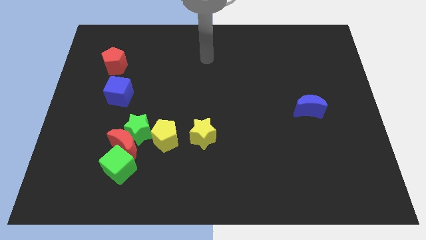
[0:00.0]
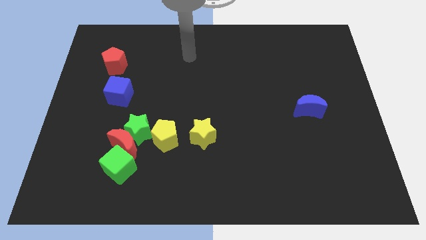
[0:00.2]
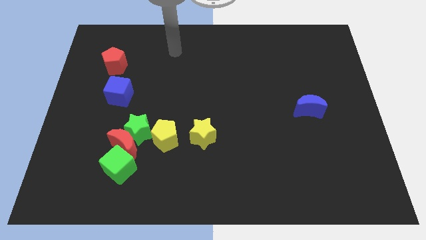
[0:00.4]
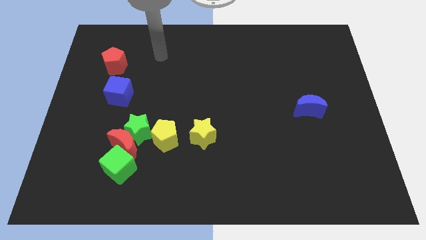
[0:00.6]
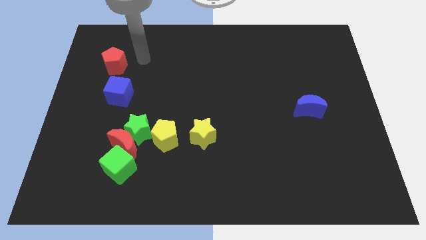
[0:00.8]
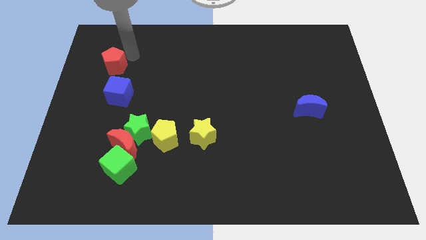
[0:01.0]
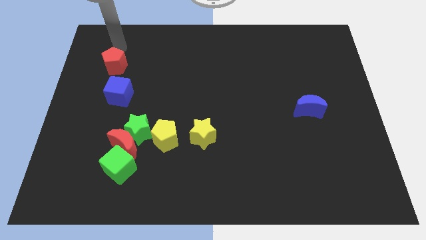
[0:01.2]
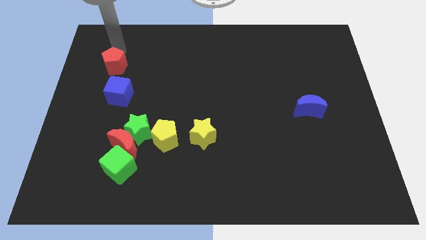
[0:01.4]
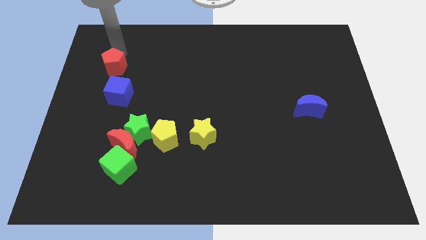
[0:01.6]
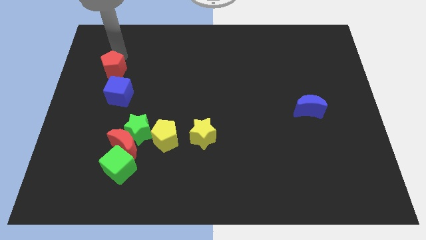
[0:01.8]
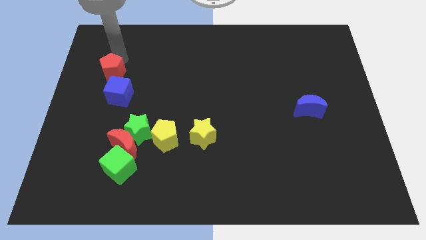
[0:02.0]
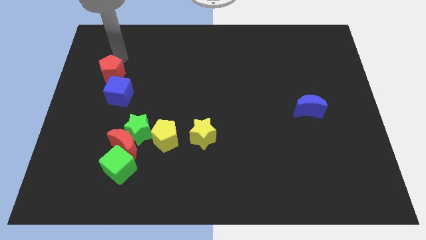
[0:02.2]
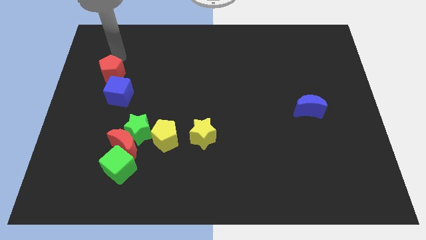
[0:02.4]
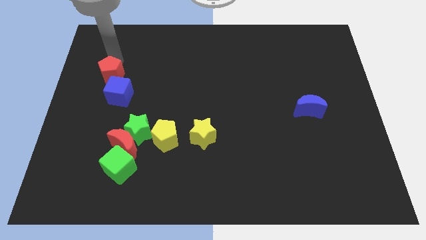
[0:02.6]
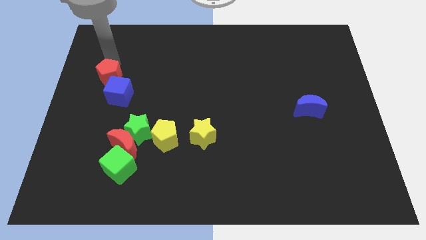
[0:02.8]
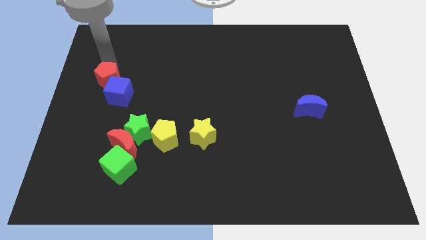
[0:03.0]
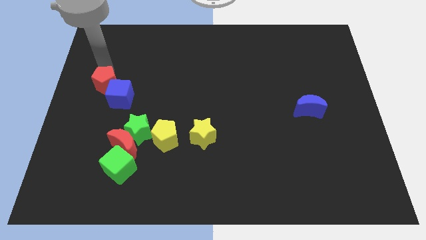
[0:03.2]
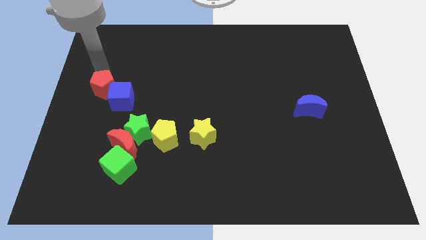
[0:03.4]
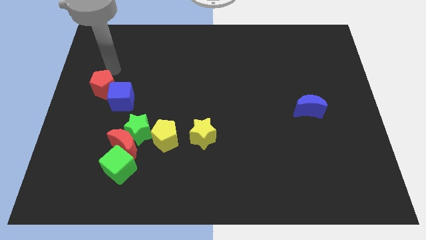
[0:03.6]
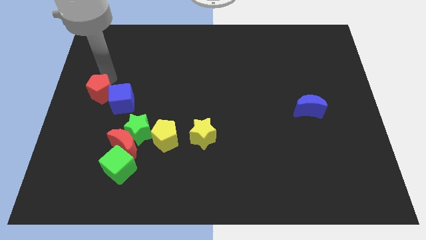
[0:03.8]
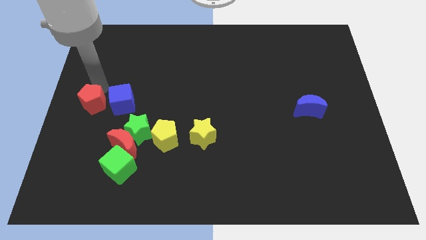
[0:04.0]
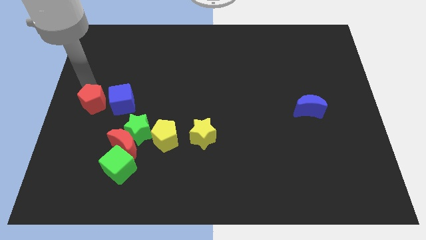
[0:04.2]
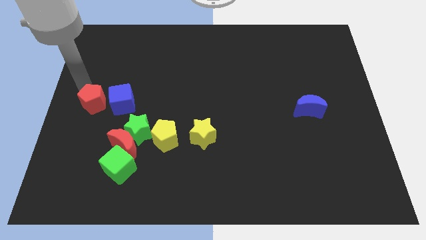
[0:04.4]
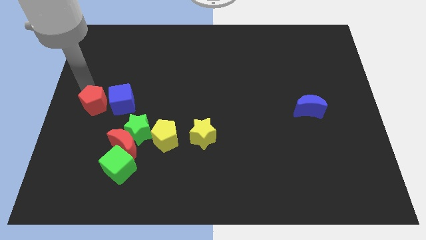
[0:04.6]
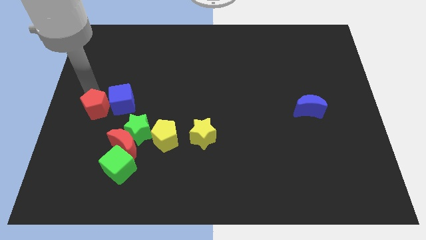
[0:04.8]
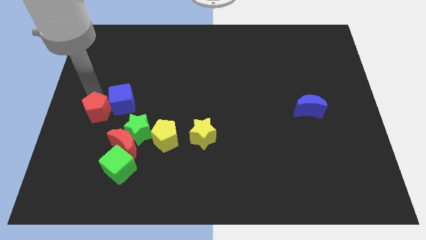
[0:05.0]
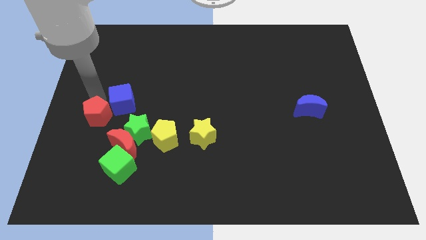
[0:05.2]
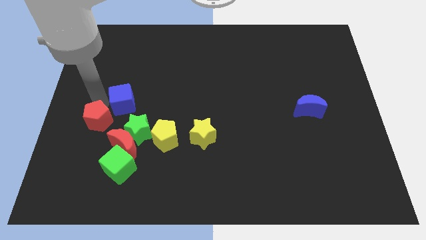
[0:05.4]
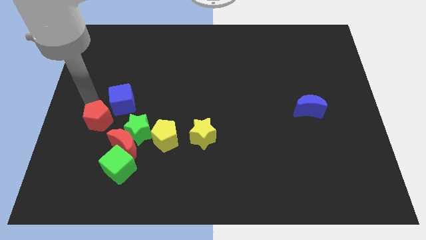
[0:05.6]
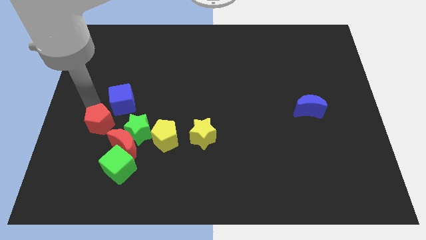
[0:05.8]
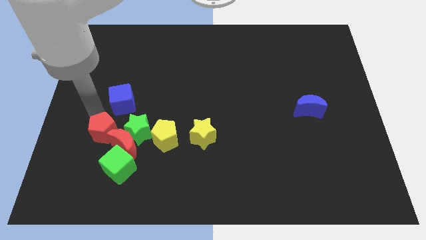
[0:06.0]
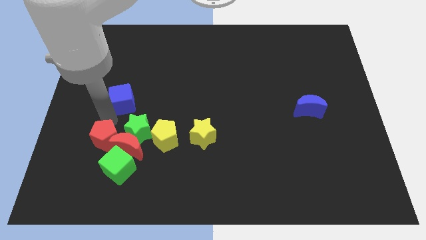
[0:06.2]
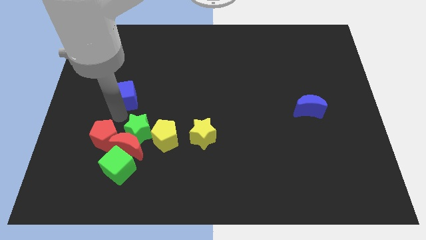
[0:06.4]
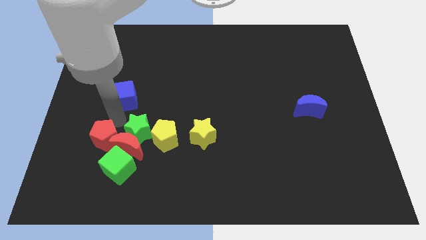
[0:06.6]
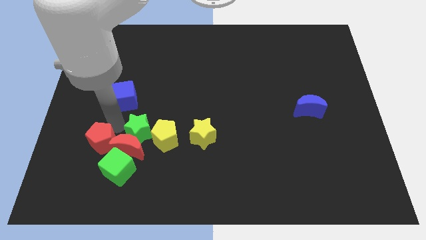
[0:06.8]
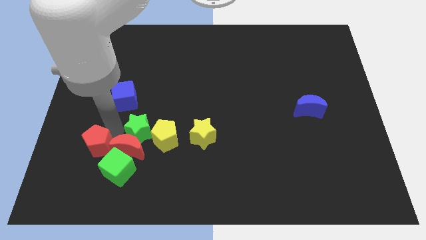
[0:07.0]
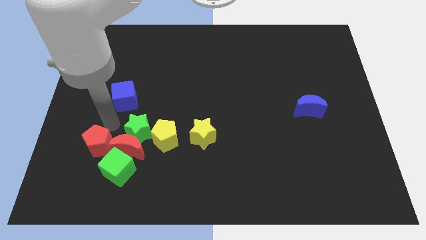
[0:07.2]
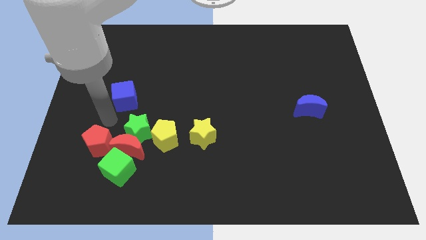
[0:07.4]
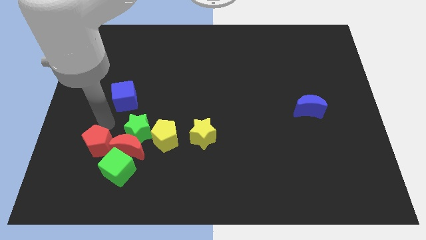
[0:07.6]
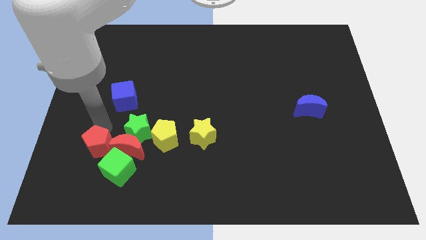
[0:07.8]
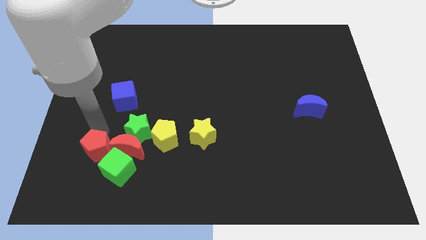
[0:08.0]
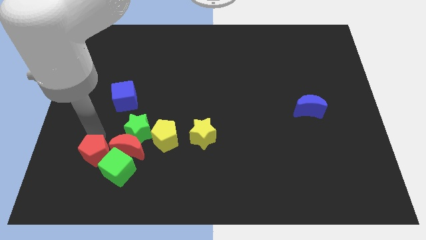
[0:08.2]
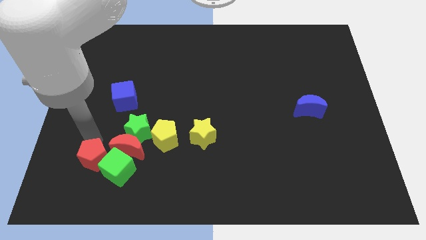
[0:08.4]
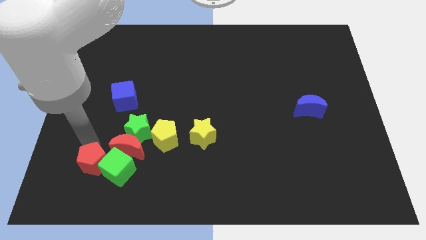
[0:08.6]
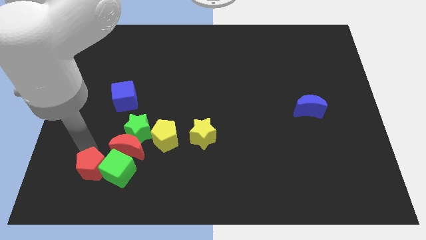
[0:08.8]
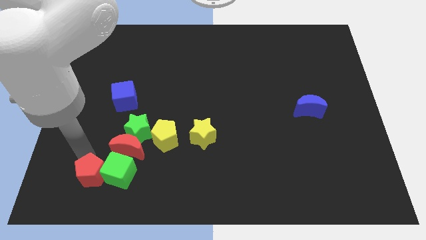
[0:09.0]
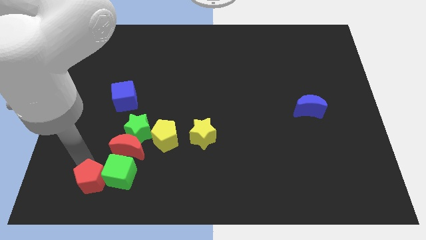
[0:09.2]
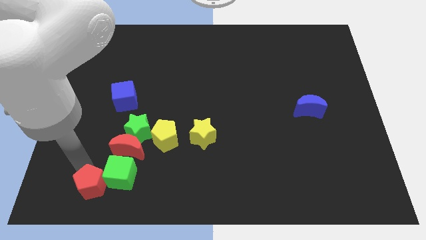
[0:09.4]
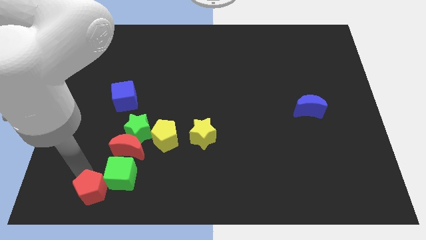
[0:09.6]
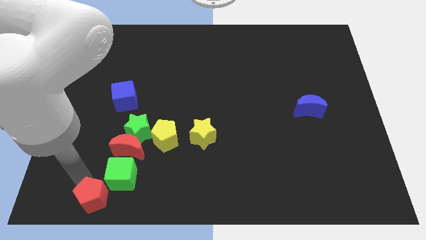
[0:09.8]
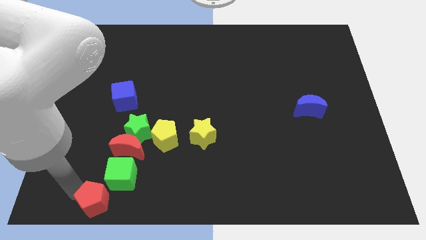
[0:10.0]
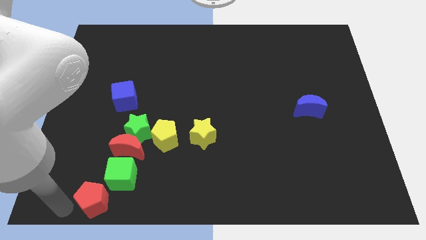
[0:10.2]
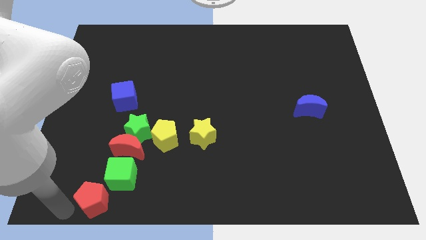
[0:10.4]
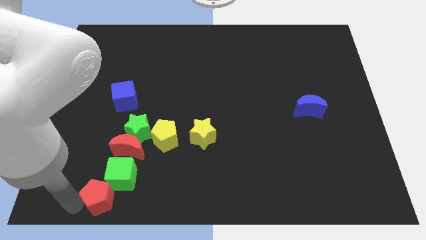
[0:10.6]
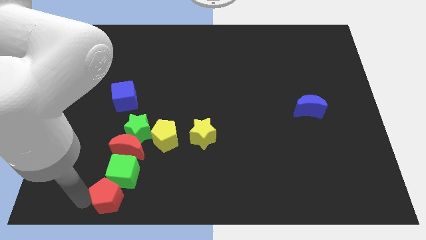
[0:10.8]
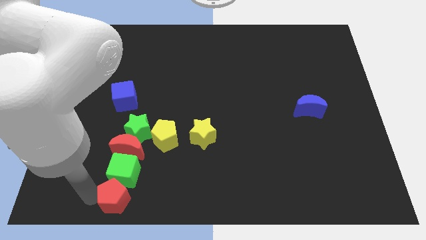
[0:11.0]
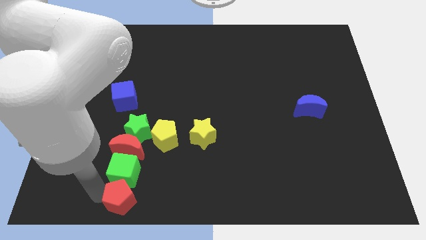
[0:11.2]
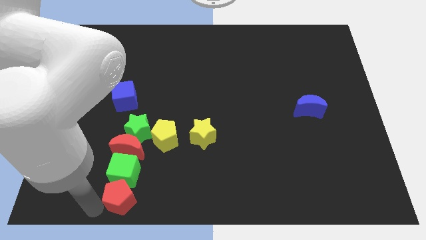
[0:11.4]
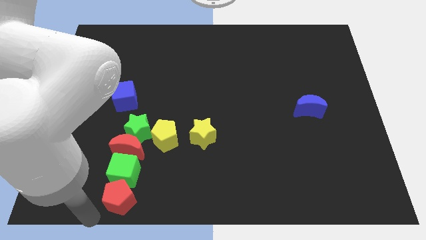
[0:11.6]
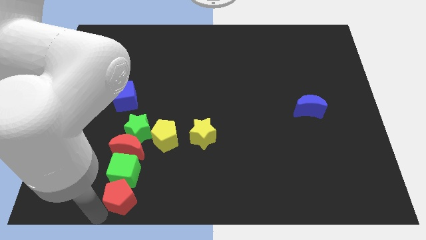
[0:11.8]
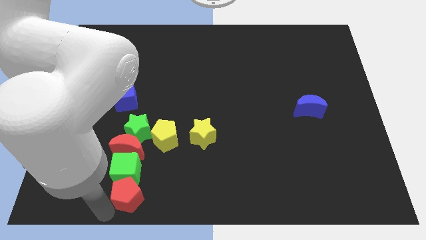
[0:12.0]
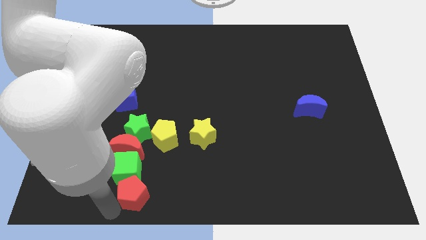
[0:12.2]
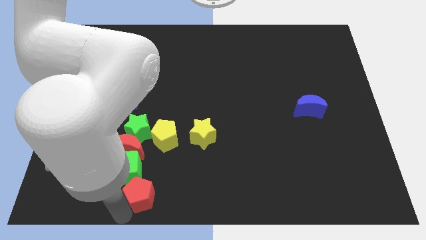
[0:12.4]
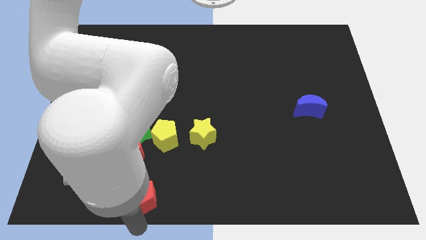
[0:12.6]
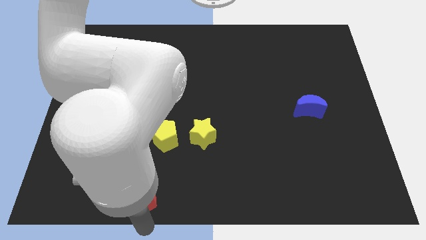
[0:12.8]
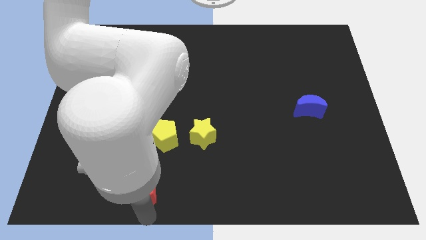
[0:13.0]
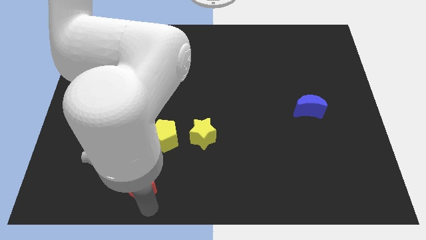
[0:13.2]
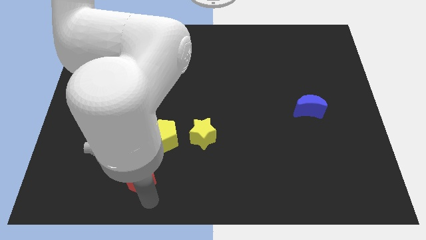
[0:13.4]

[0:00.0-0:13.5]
move the red pentagon diagonally down and to the left of the yellow pentagon

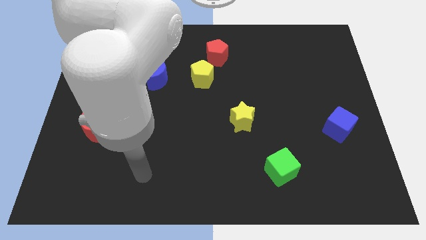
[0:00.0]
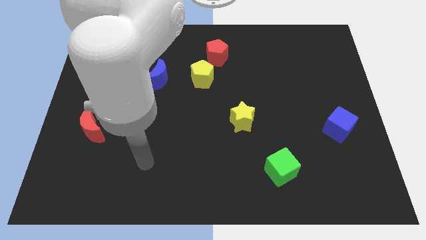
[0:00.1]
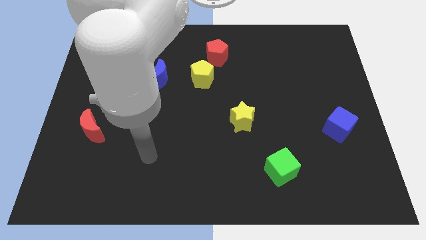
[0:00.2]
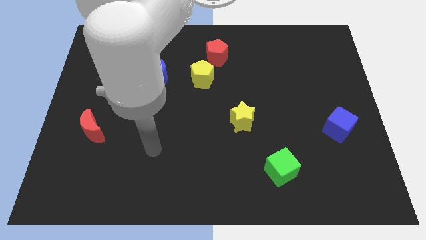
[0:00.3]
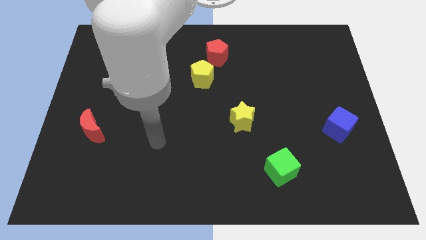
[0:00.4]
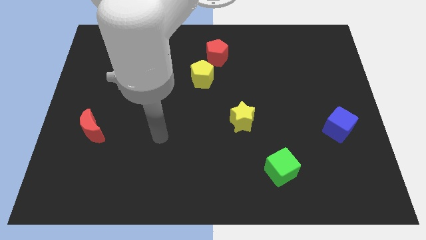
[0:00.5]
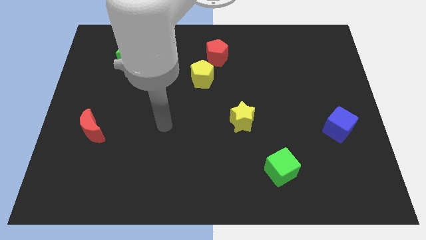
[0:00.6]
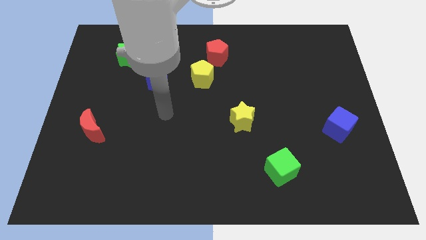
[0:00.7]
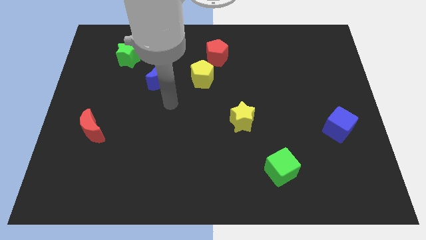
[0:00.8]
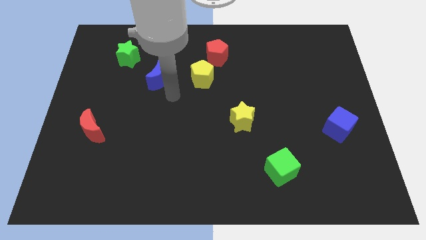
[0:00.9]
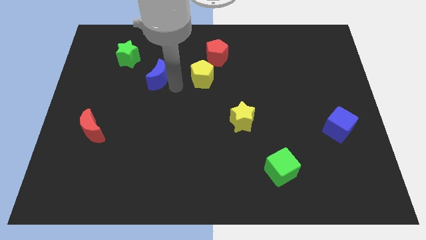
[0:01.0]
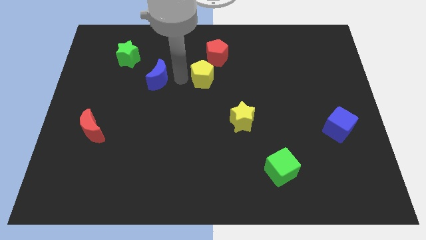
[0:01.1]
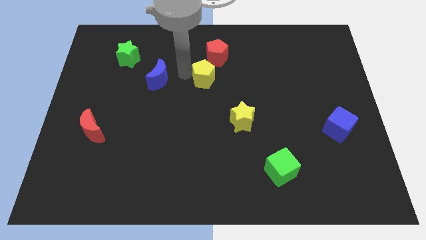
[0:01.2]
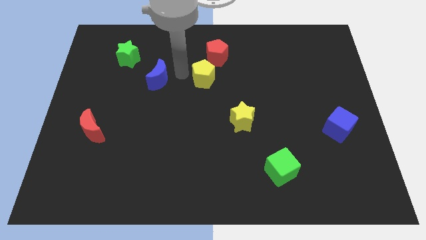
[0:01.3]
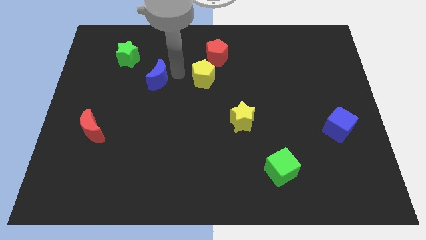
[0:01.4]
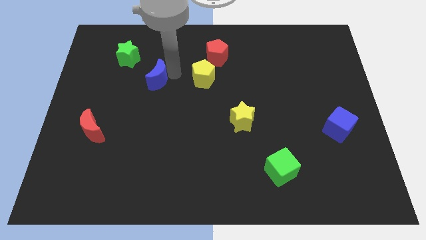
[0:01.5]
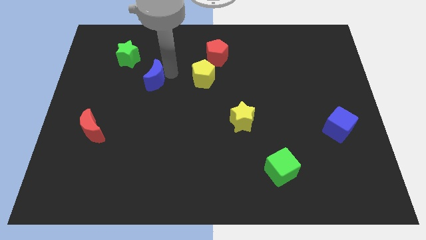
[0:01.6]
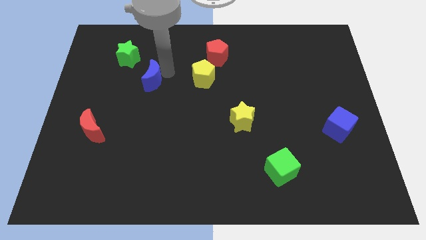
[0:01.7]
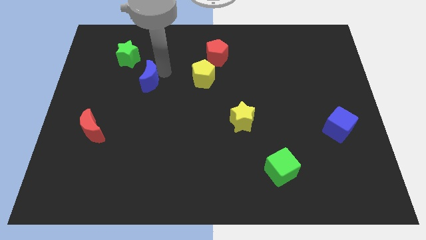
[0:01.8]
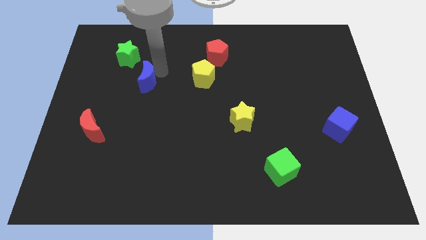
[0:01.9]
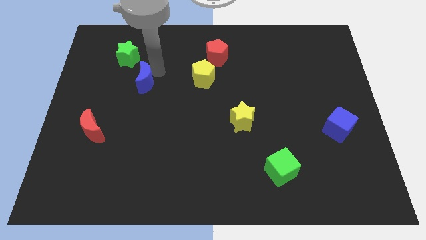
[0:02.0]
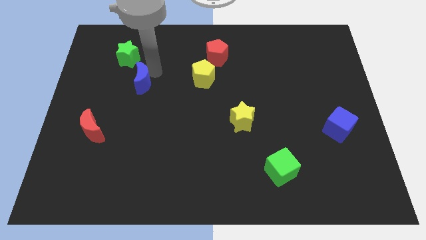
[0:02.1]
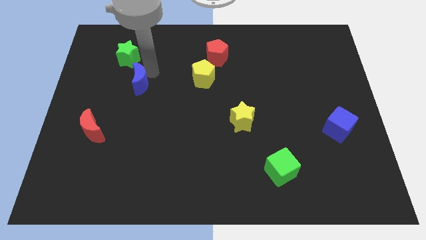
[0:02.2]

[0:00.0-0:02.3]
put the blue moon to the bottom side of the green star
